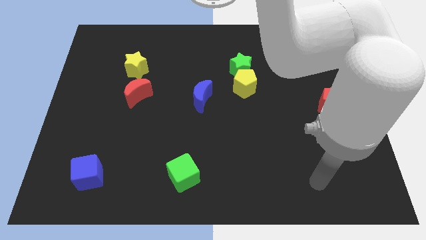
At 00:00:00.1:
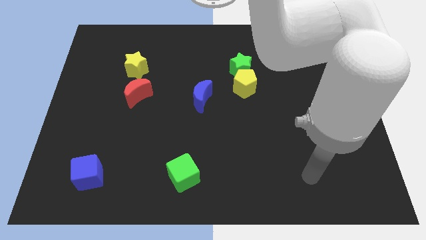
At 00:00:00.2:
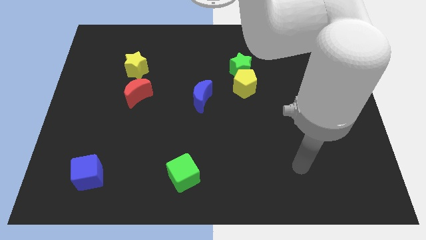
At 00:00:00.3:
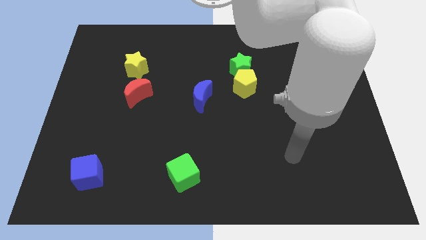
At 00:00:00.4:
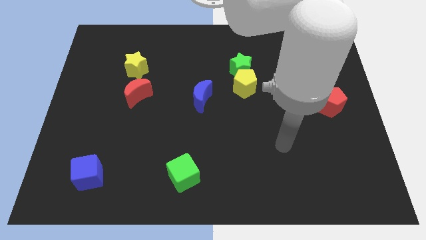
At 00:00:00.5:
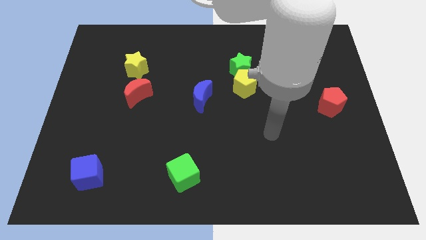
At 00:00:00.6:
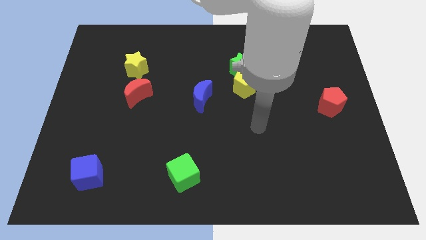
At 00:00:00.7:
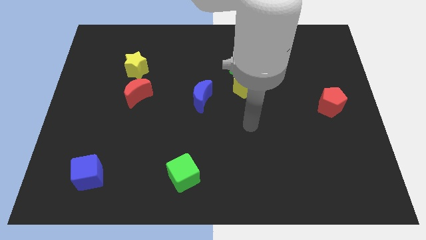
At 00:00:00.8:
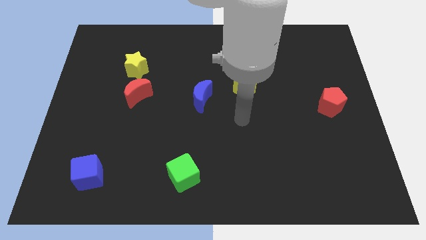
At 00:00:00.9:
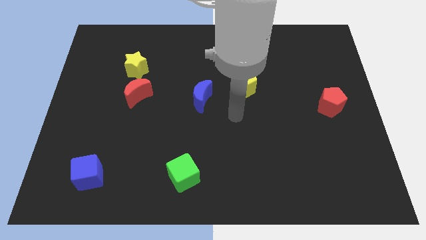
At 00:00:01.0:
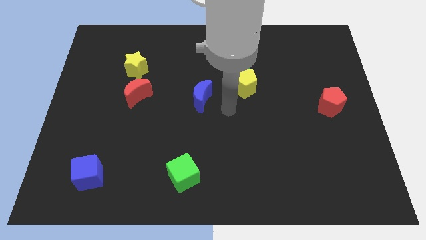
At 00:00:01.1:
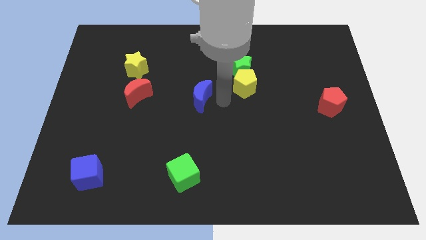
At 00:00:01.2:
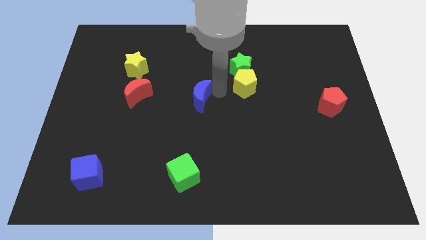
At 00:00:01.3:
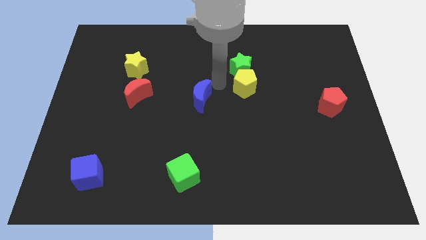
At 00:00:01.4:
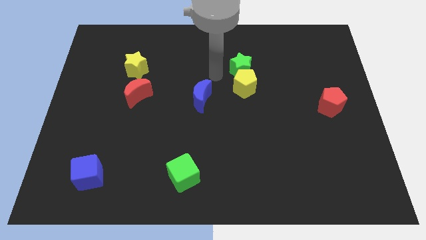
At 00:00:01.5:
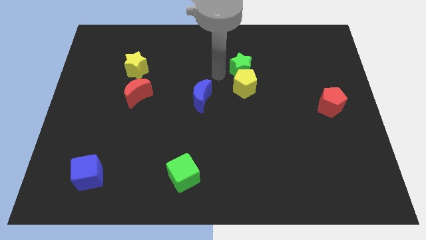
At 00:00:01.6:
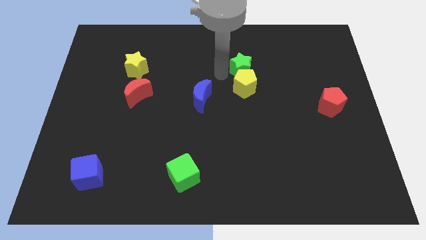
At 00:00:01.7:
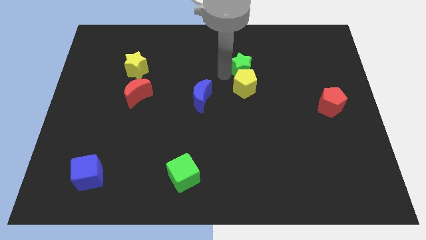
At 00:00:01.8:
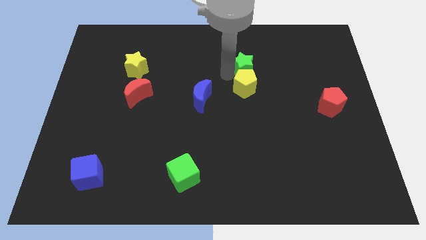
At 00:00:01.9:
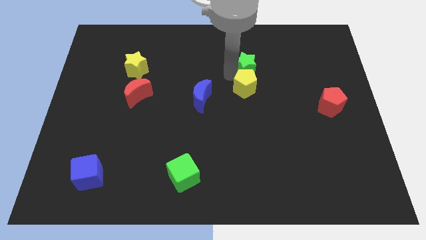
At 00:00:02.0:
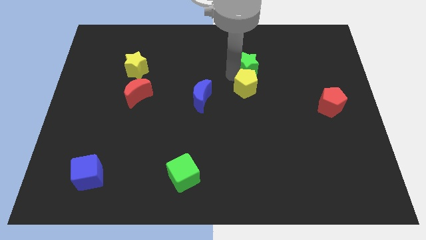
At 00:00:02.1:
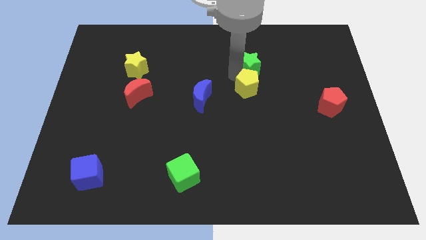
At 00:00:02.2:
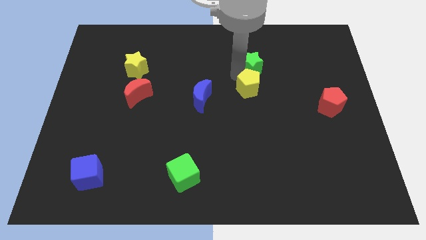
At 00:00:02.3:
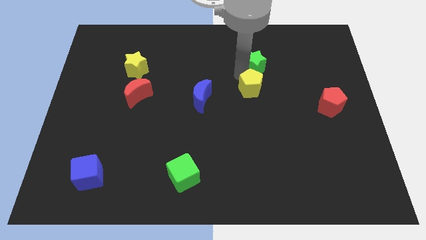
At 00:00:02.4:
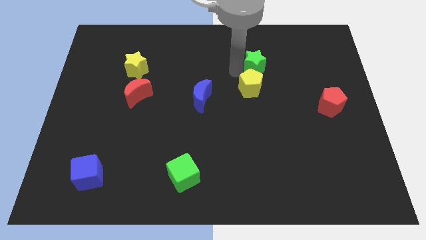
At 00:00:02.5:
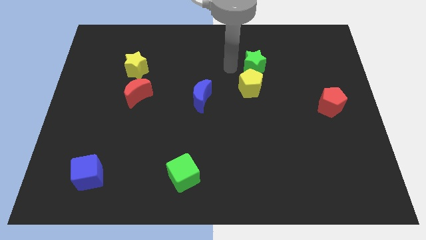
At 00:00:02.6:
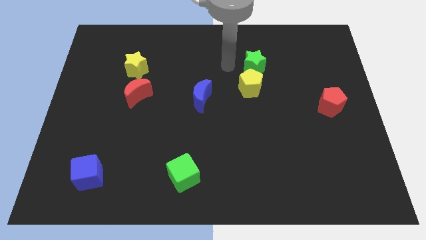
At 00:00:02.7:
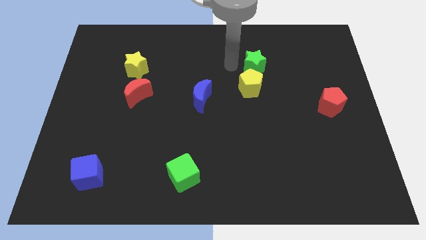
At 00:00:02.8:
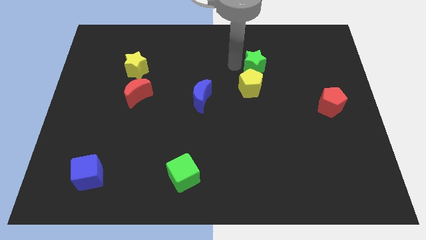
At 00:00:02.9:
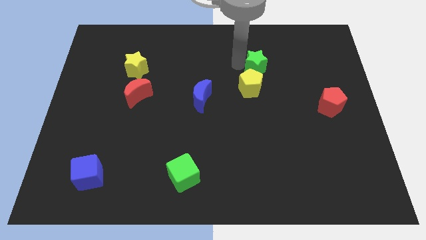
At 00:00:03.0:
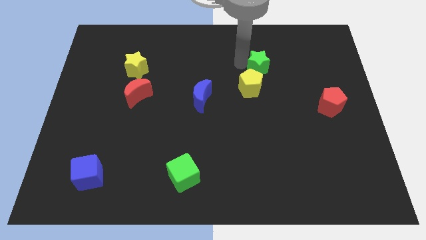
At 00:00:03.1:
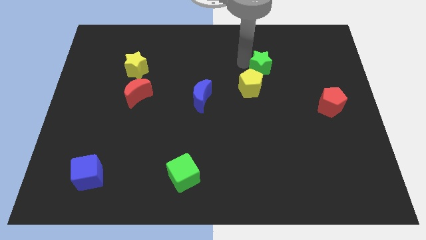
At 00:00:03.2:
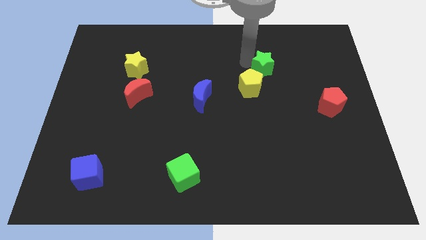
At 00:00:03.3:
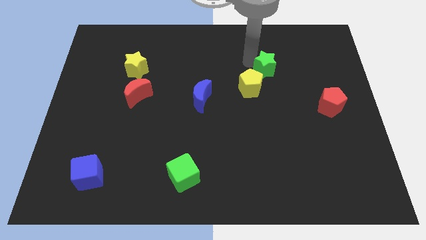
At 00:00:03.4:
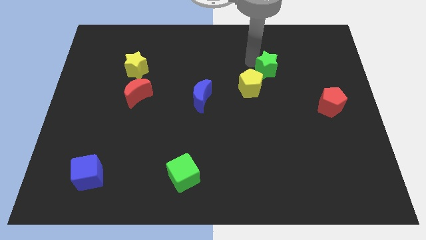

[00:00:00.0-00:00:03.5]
slide the green star to the right a little

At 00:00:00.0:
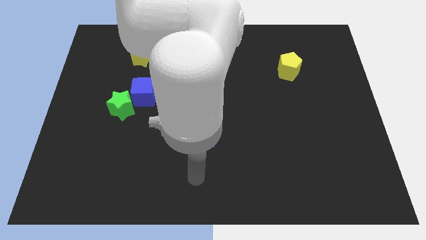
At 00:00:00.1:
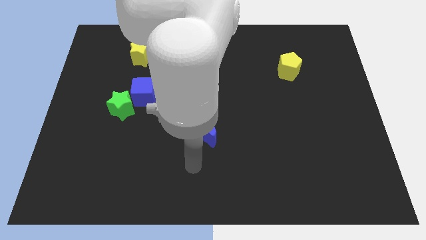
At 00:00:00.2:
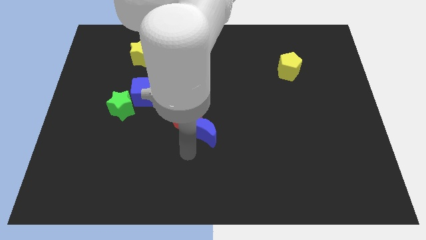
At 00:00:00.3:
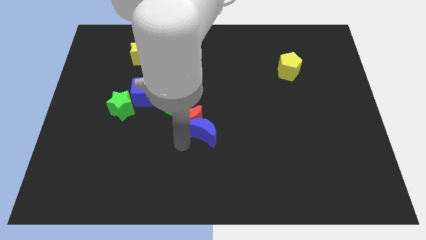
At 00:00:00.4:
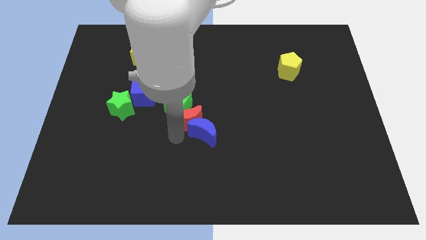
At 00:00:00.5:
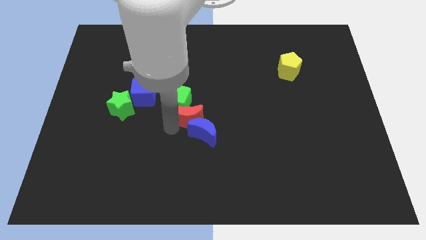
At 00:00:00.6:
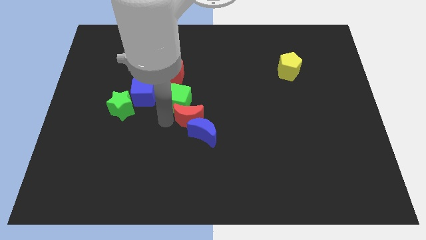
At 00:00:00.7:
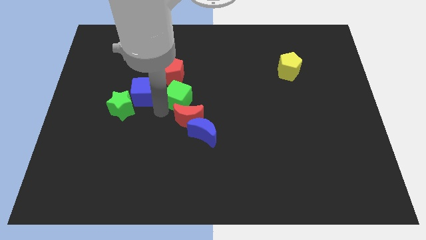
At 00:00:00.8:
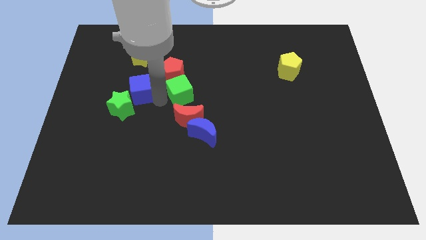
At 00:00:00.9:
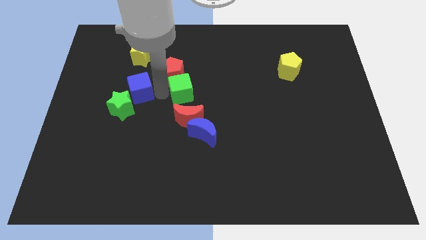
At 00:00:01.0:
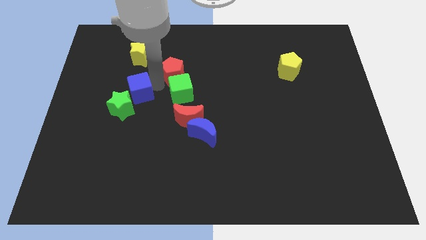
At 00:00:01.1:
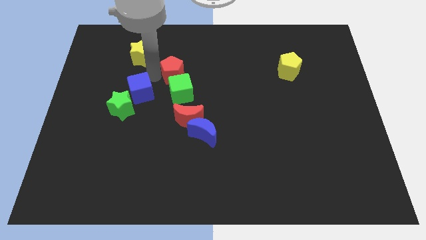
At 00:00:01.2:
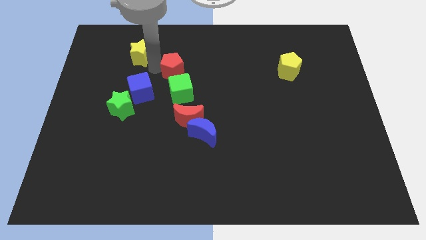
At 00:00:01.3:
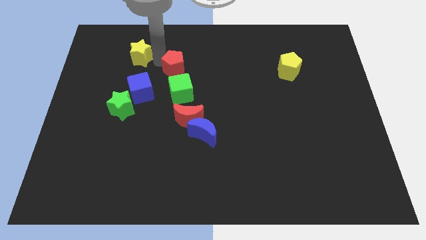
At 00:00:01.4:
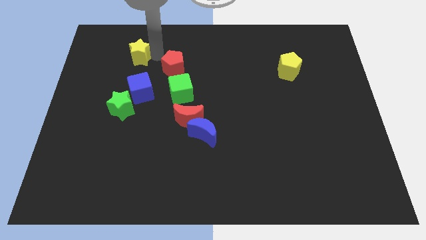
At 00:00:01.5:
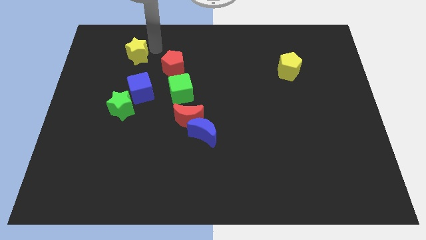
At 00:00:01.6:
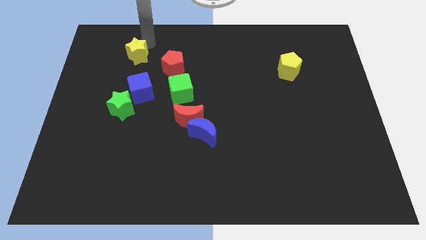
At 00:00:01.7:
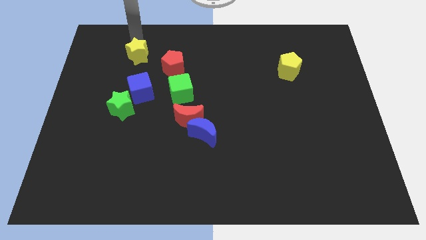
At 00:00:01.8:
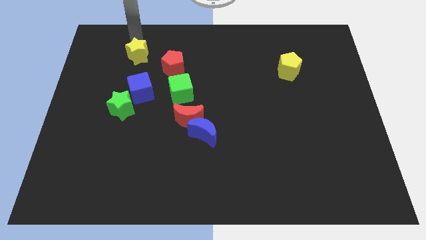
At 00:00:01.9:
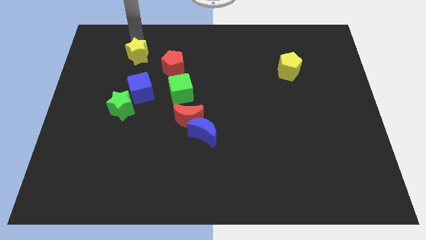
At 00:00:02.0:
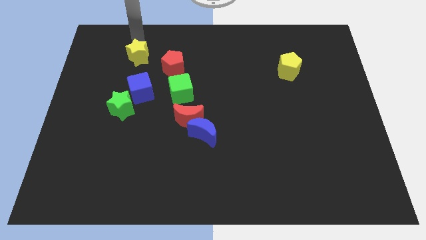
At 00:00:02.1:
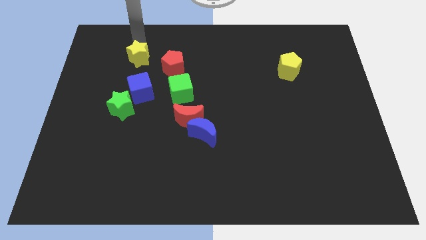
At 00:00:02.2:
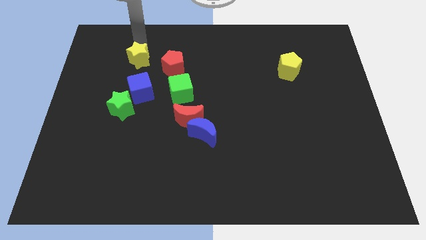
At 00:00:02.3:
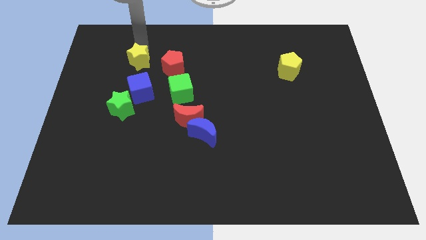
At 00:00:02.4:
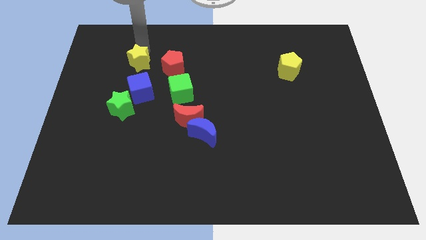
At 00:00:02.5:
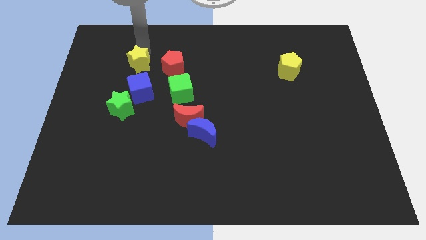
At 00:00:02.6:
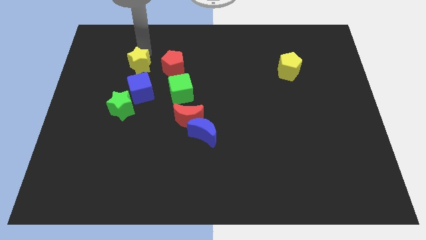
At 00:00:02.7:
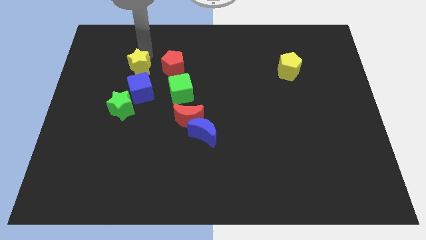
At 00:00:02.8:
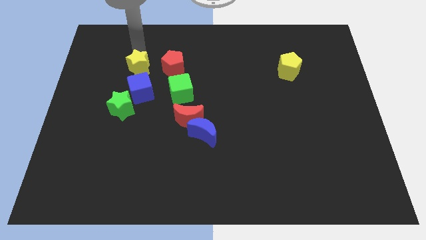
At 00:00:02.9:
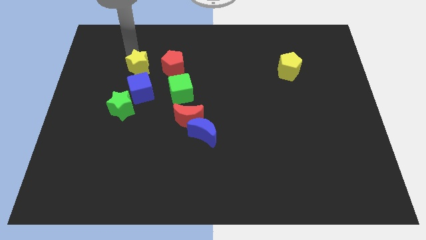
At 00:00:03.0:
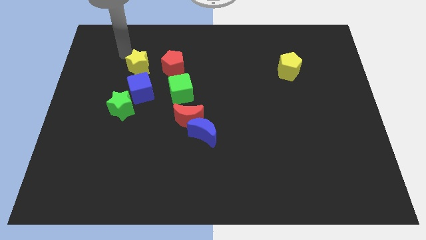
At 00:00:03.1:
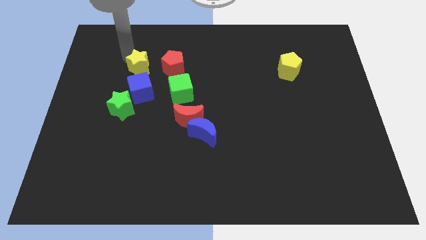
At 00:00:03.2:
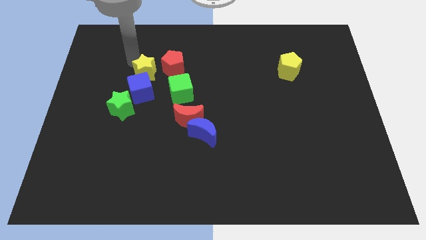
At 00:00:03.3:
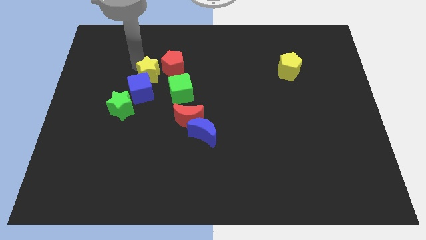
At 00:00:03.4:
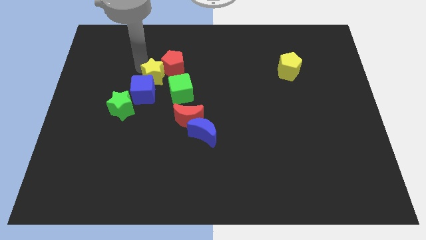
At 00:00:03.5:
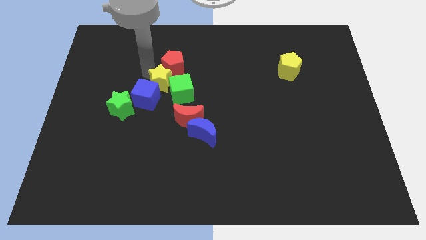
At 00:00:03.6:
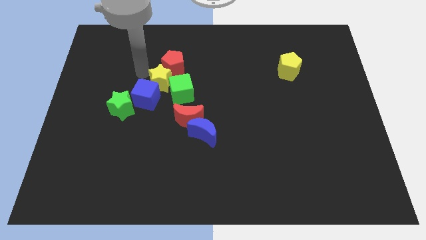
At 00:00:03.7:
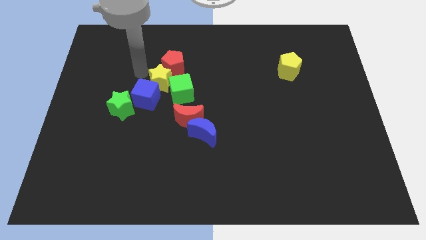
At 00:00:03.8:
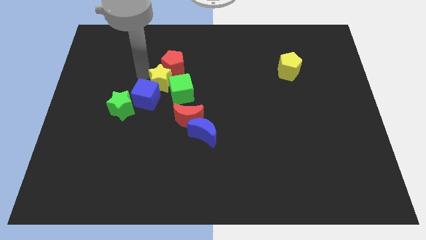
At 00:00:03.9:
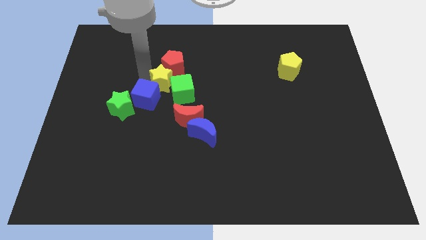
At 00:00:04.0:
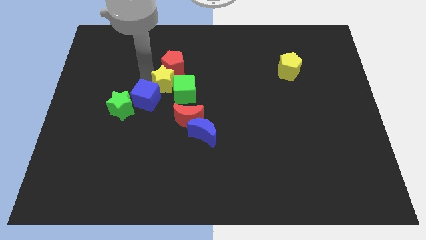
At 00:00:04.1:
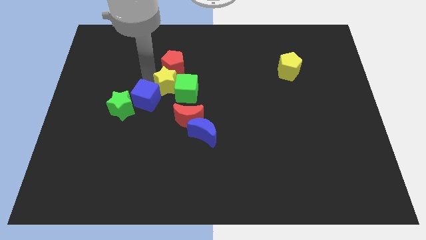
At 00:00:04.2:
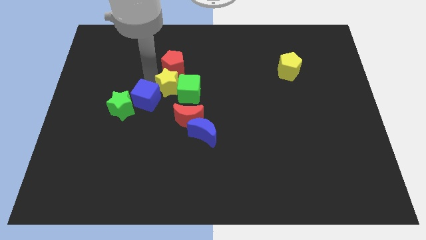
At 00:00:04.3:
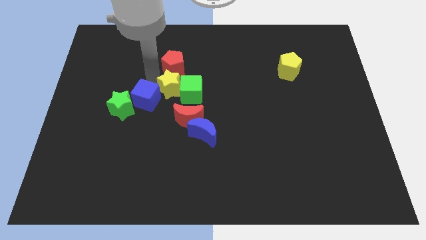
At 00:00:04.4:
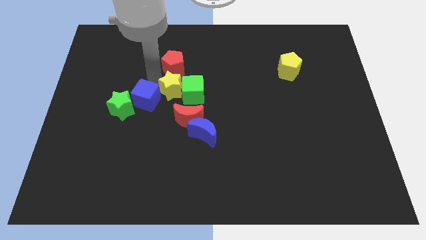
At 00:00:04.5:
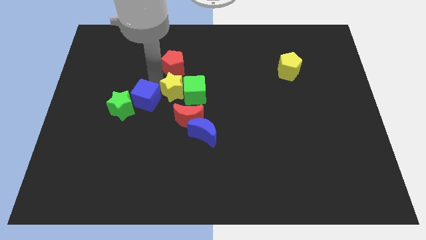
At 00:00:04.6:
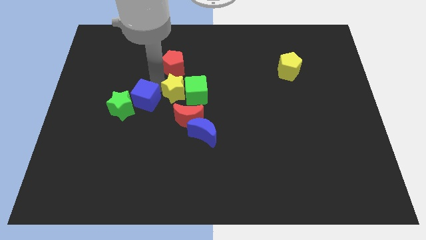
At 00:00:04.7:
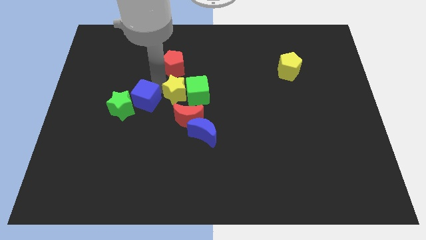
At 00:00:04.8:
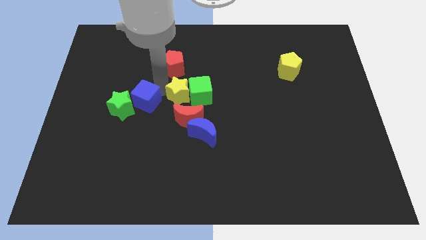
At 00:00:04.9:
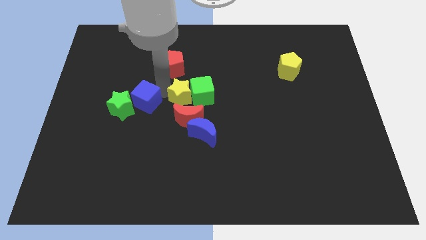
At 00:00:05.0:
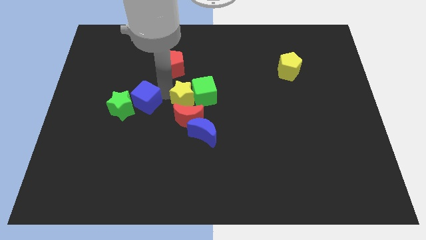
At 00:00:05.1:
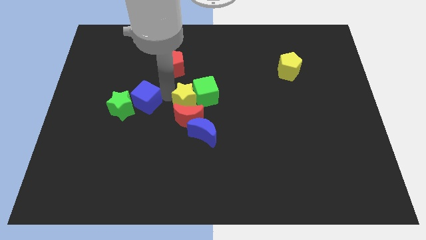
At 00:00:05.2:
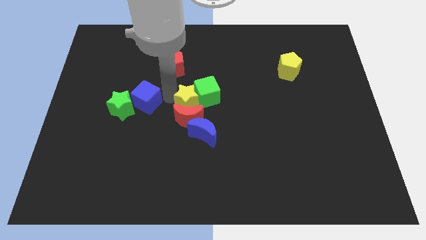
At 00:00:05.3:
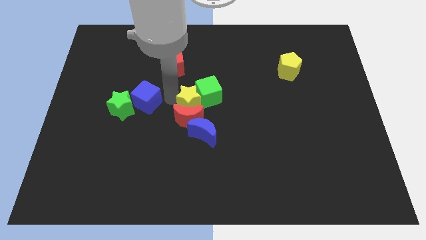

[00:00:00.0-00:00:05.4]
slide the yellow star downwards and right diagonally
